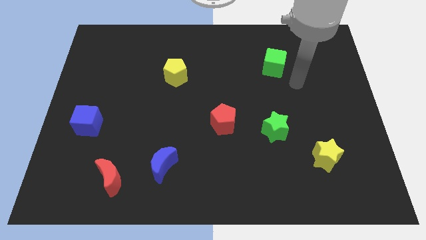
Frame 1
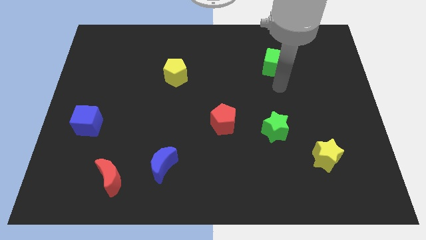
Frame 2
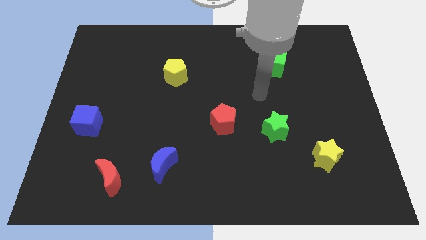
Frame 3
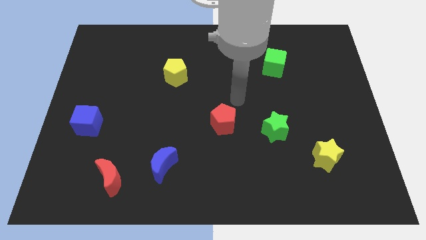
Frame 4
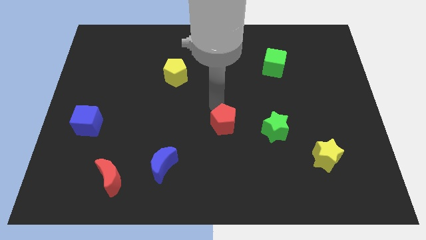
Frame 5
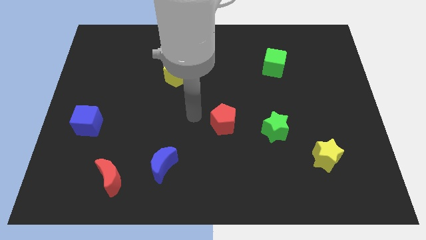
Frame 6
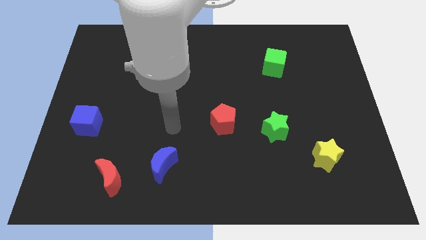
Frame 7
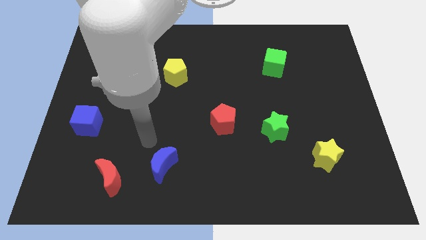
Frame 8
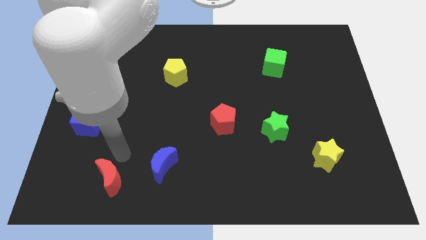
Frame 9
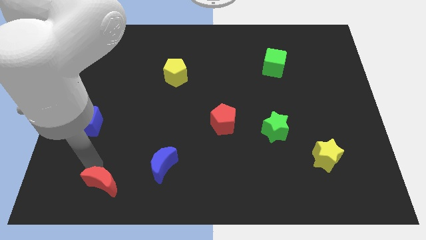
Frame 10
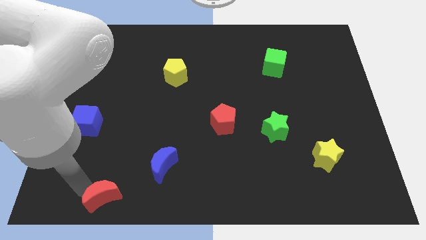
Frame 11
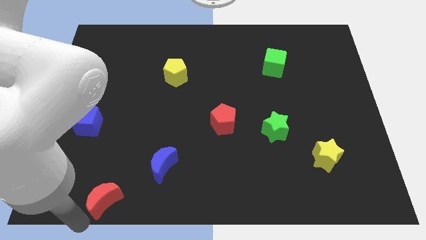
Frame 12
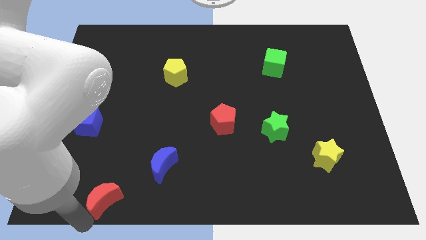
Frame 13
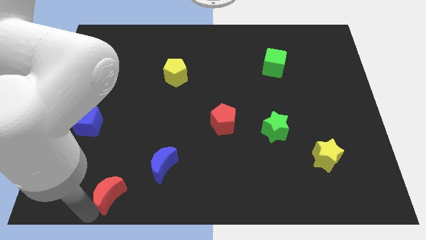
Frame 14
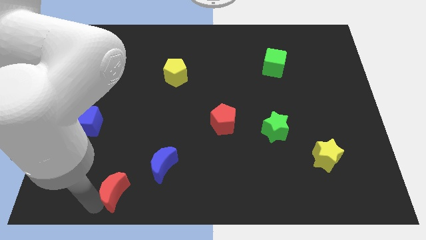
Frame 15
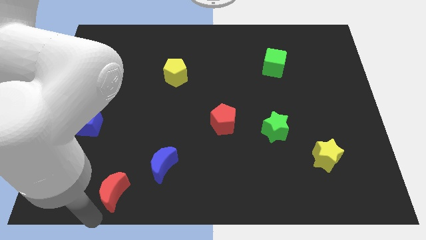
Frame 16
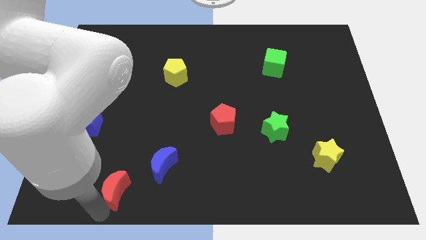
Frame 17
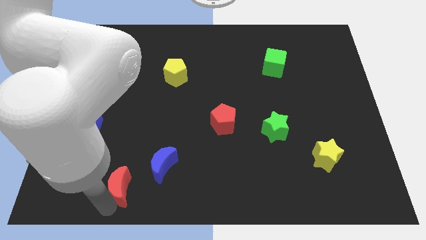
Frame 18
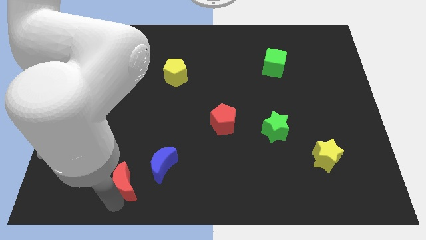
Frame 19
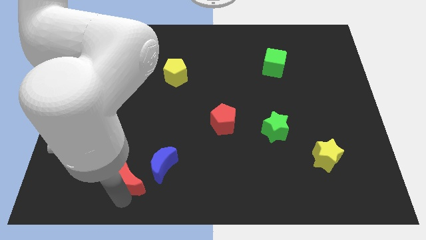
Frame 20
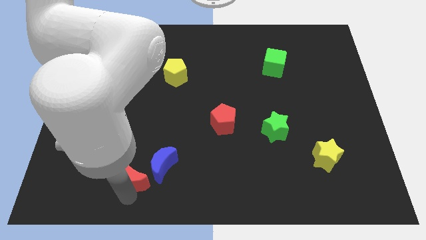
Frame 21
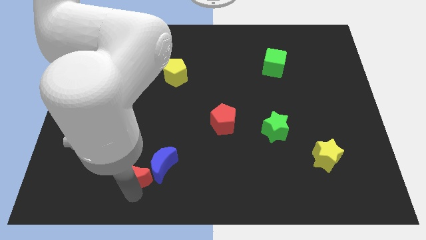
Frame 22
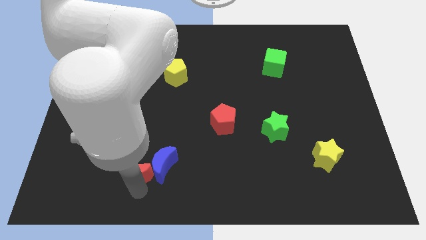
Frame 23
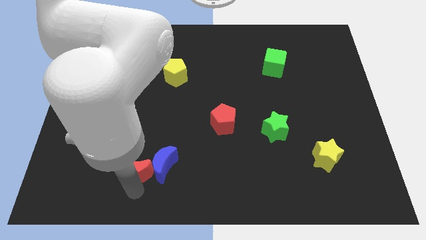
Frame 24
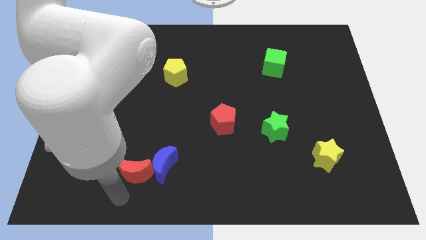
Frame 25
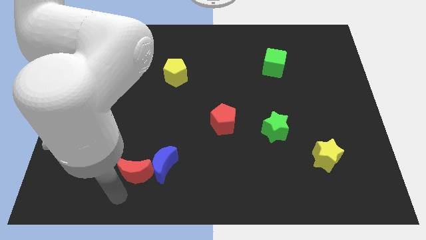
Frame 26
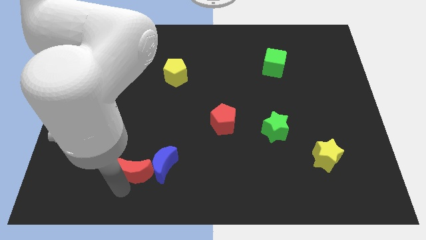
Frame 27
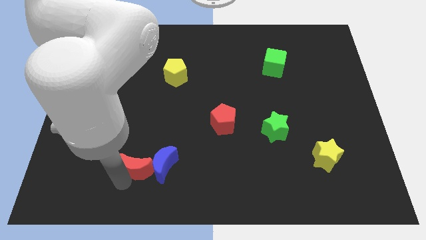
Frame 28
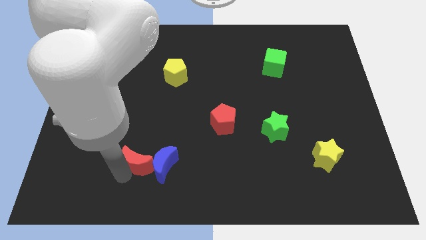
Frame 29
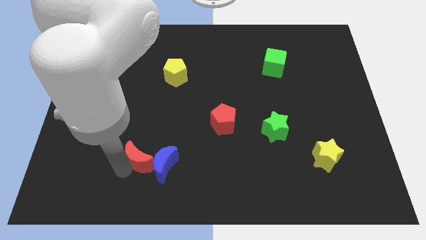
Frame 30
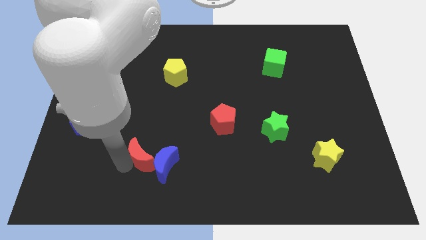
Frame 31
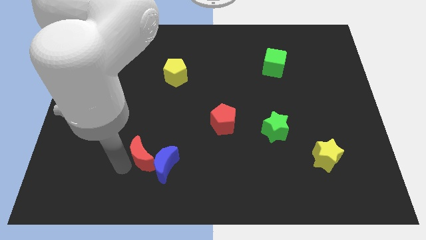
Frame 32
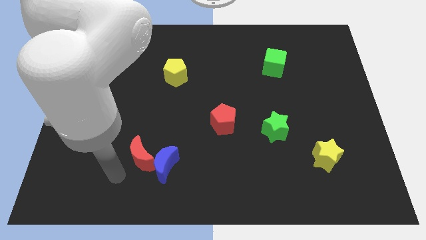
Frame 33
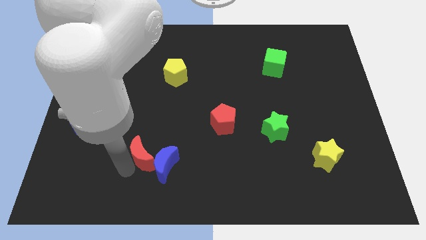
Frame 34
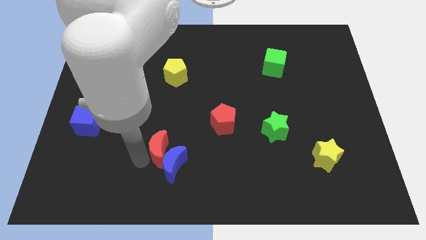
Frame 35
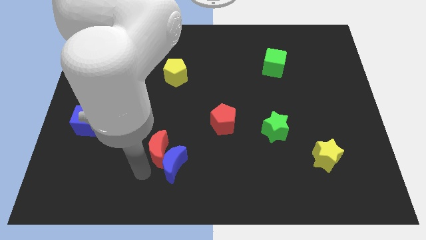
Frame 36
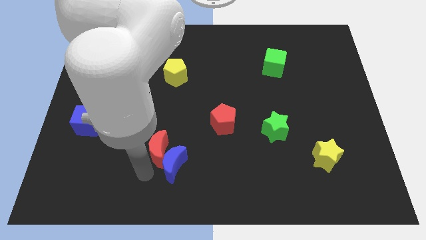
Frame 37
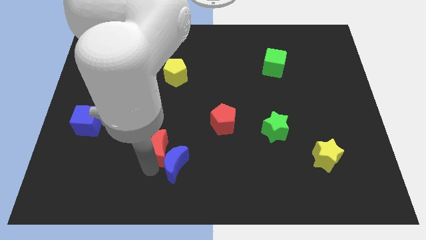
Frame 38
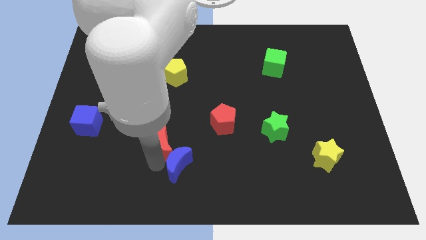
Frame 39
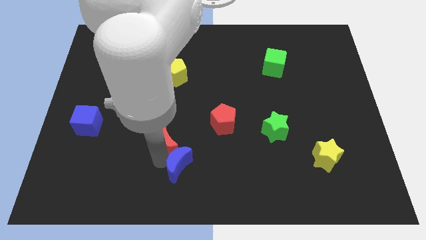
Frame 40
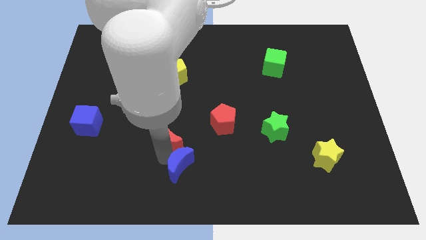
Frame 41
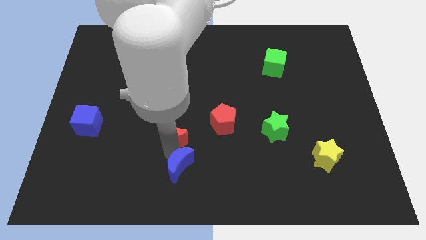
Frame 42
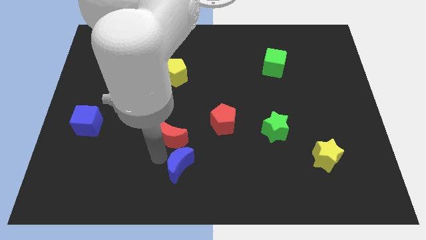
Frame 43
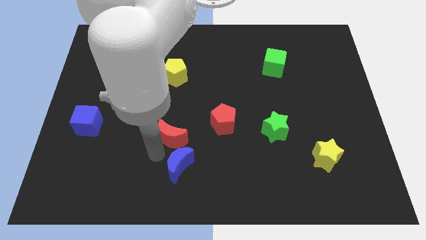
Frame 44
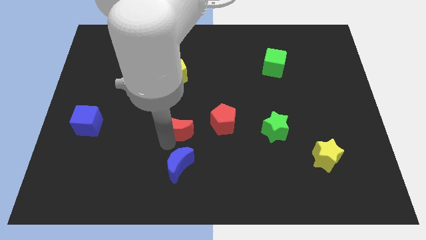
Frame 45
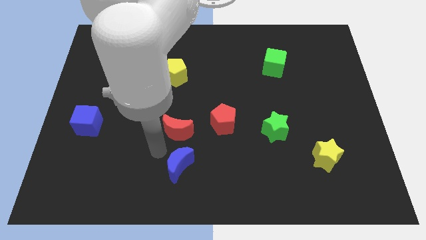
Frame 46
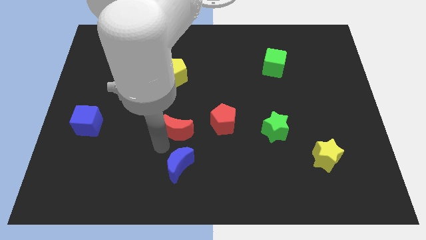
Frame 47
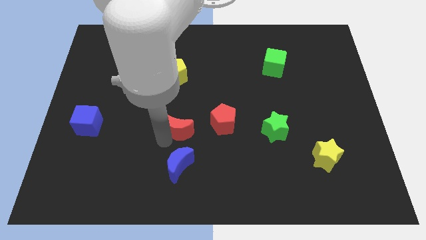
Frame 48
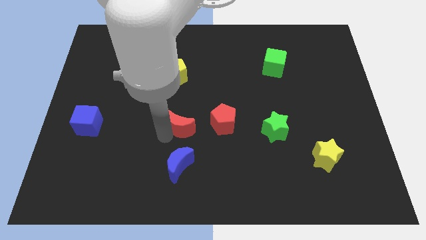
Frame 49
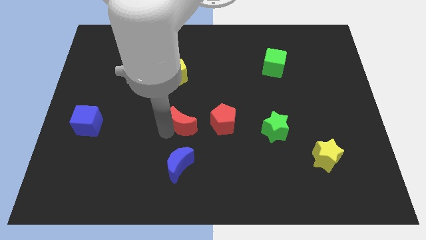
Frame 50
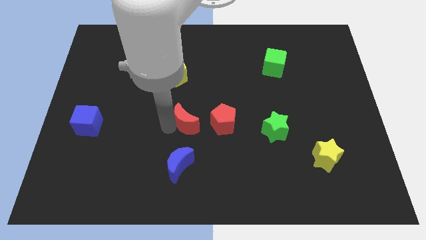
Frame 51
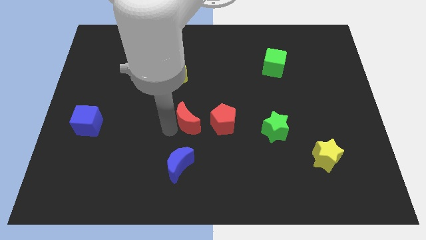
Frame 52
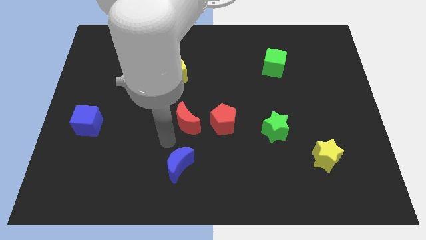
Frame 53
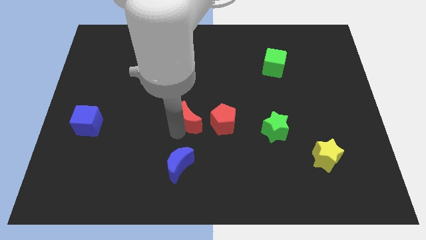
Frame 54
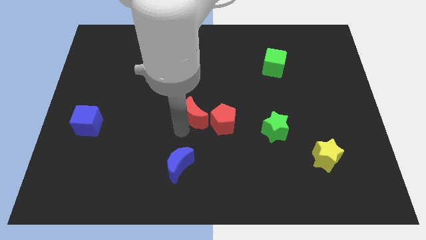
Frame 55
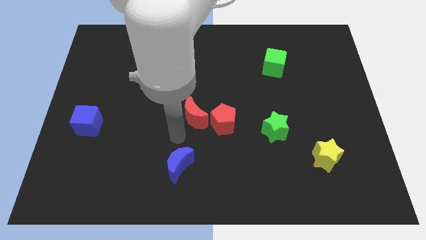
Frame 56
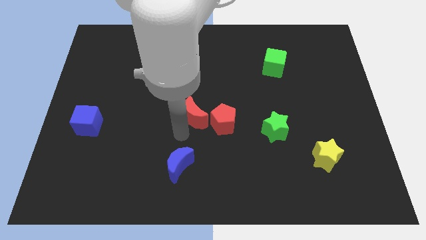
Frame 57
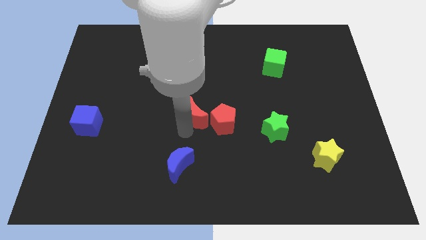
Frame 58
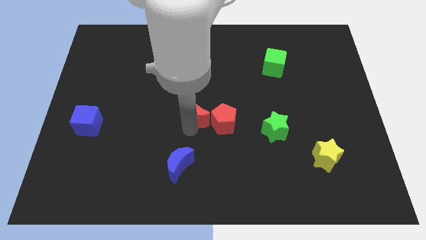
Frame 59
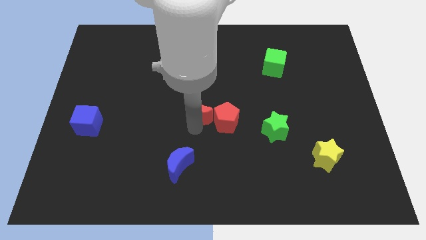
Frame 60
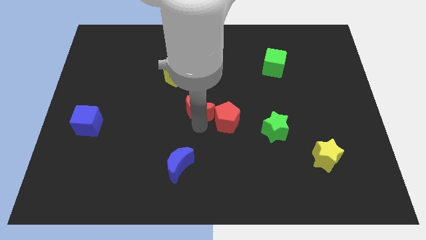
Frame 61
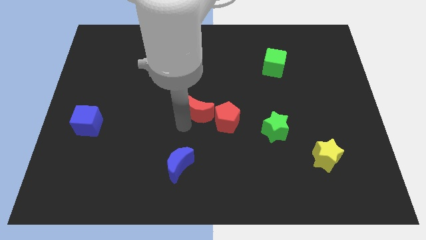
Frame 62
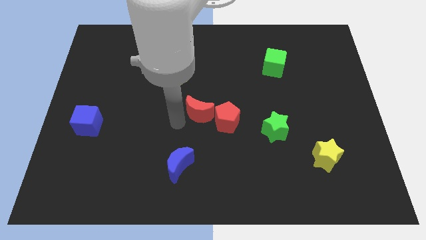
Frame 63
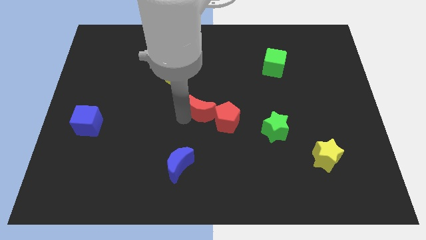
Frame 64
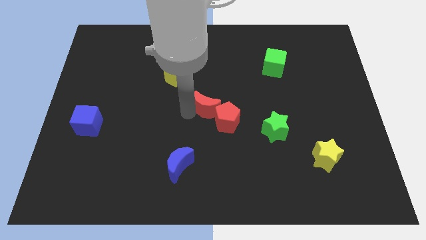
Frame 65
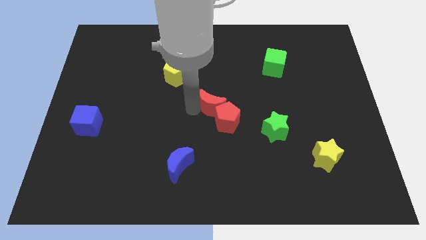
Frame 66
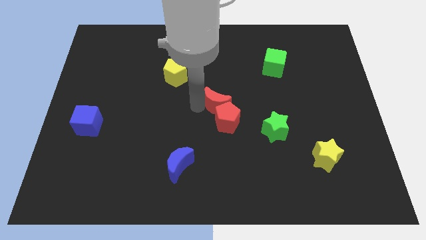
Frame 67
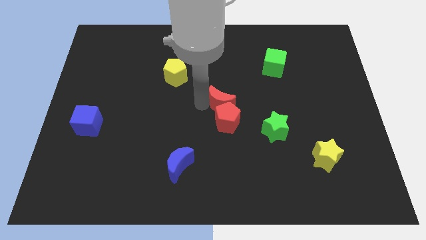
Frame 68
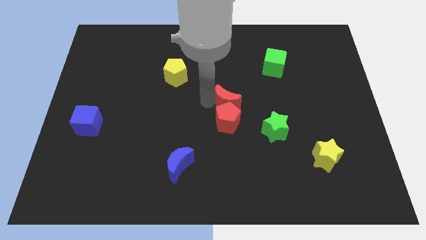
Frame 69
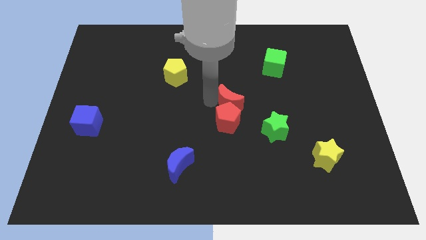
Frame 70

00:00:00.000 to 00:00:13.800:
push the red moon diagonally up and to the left of the green star

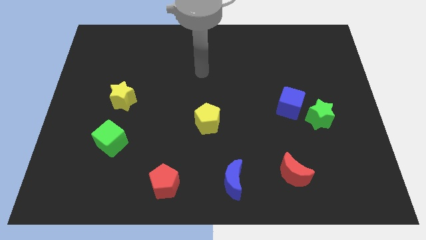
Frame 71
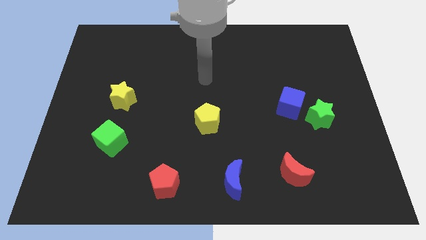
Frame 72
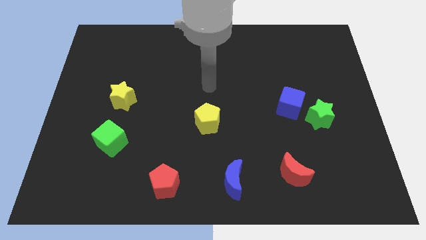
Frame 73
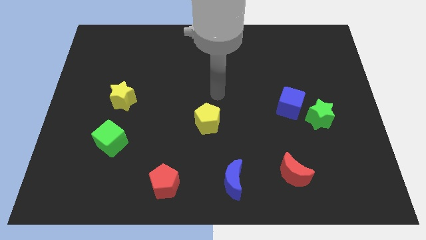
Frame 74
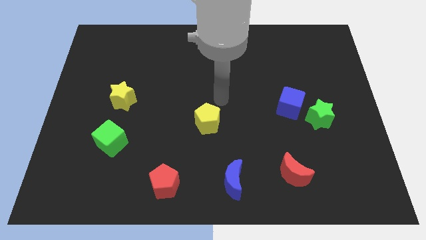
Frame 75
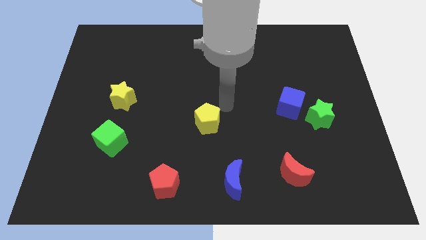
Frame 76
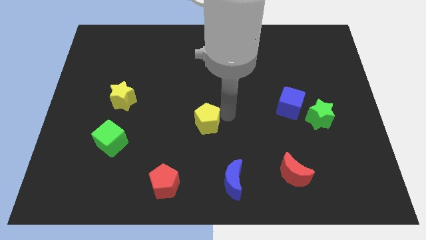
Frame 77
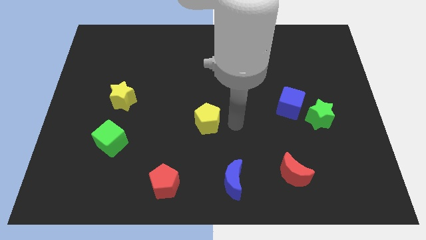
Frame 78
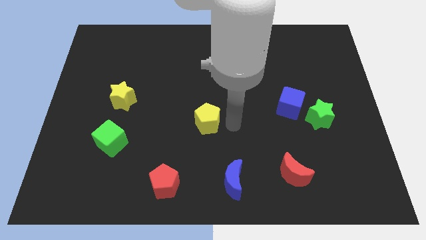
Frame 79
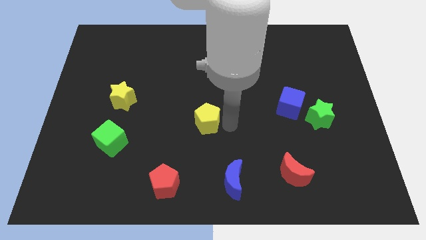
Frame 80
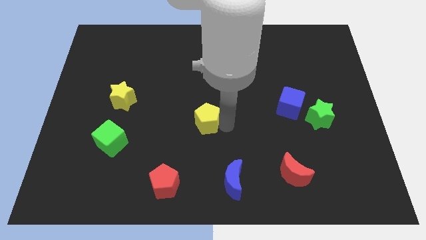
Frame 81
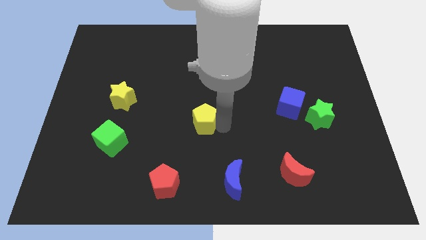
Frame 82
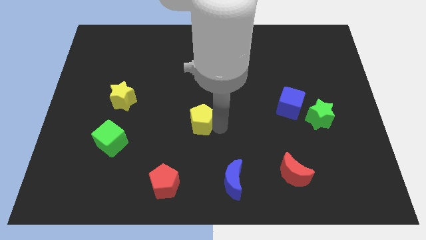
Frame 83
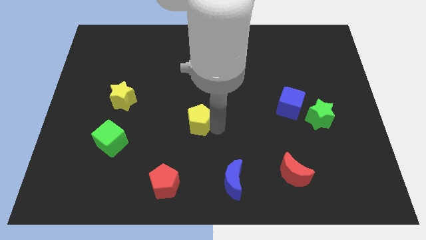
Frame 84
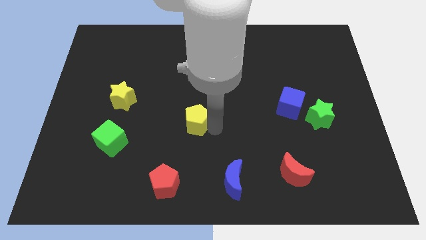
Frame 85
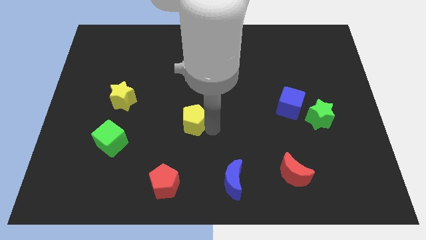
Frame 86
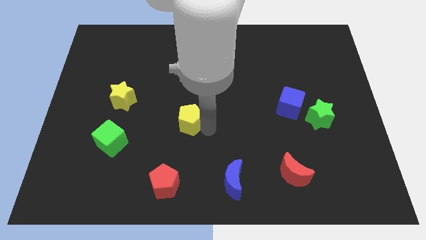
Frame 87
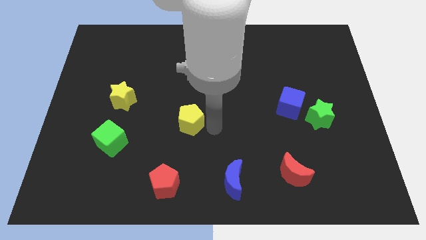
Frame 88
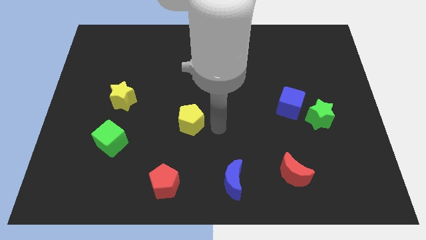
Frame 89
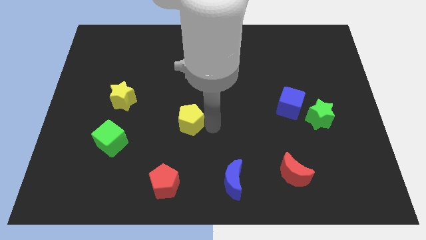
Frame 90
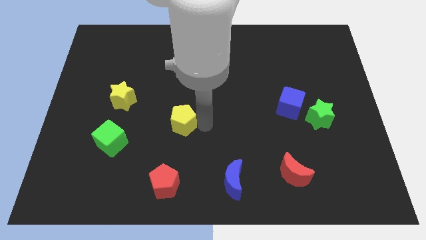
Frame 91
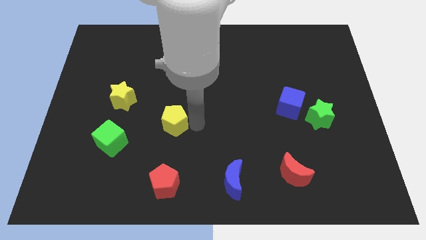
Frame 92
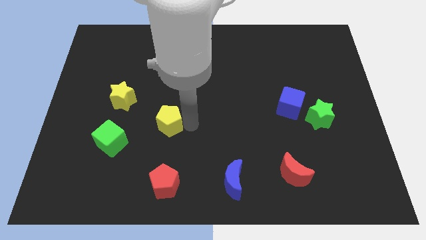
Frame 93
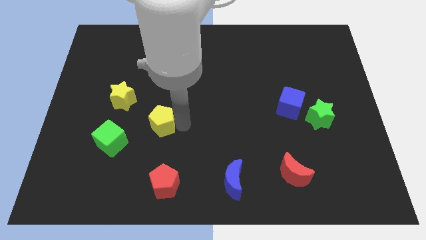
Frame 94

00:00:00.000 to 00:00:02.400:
push the yellow pentagon diagonally down and to the right of the yellow star
